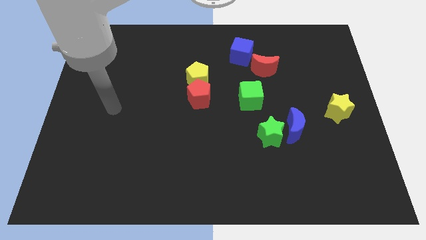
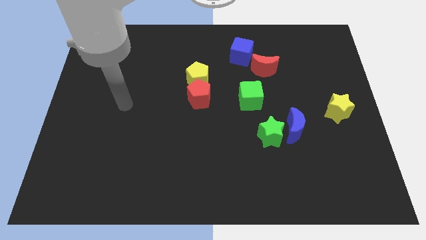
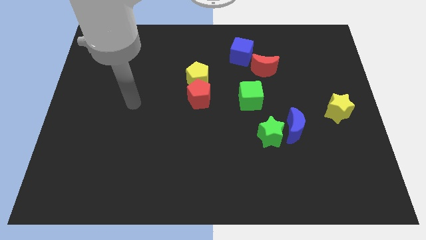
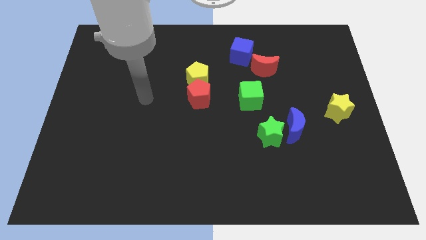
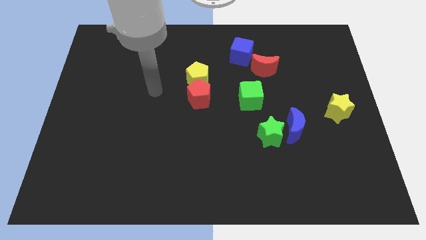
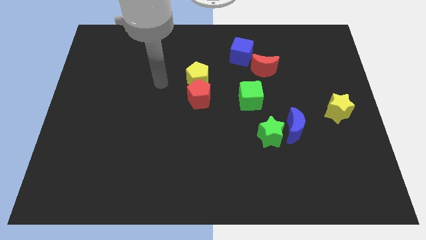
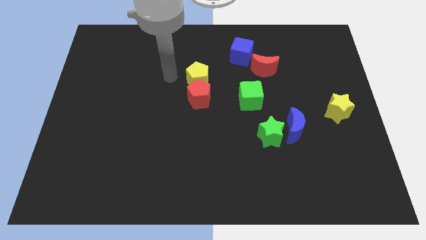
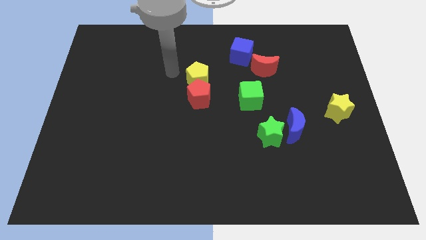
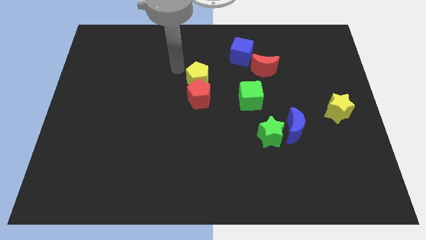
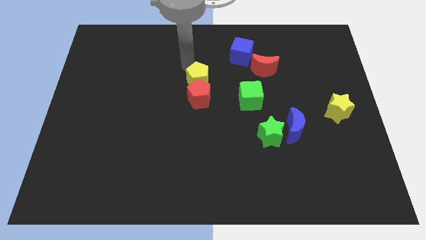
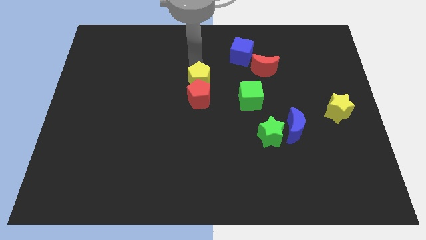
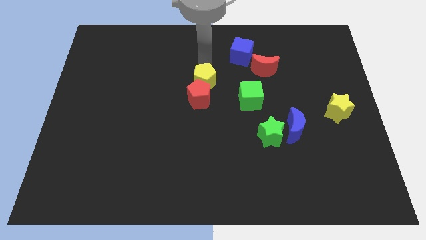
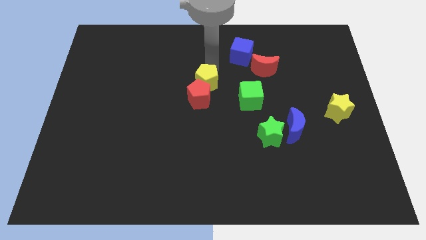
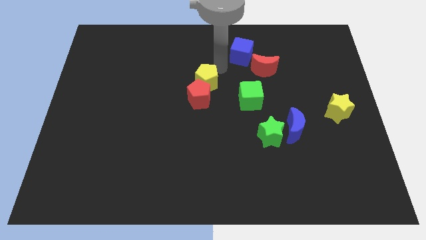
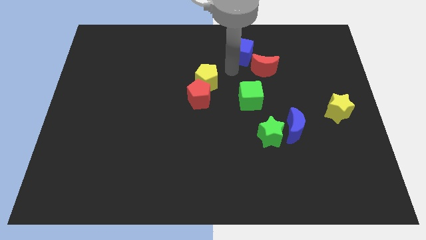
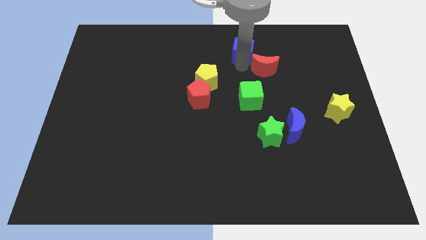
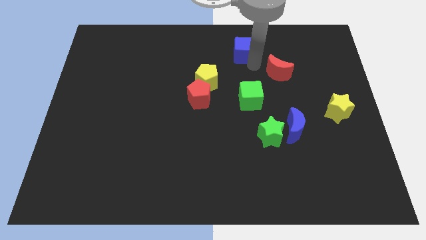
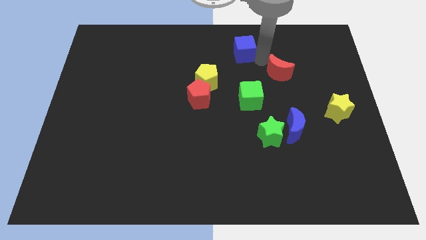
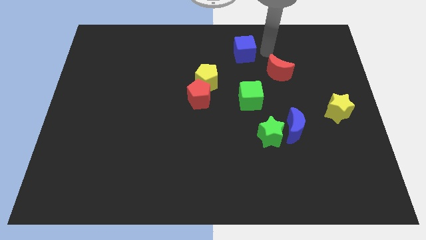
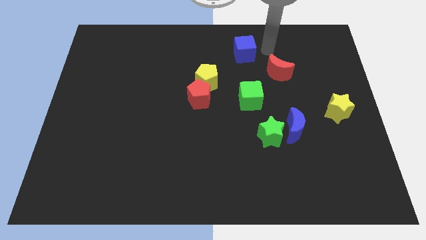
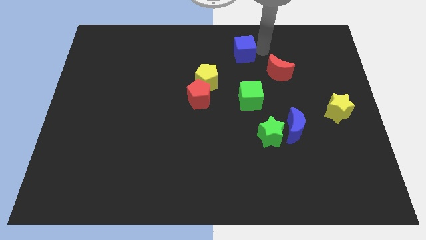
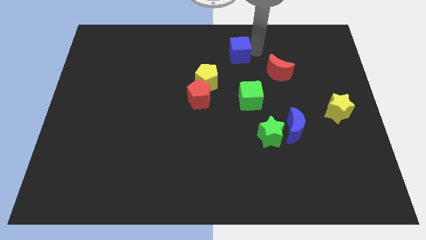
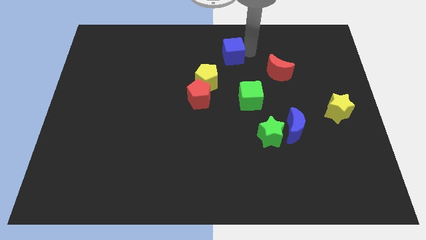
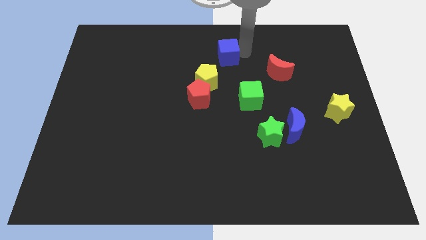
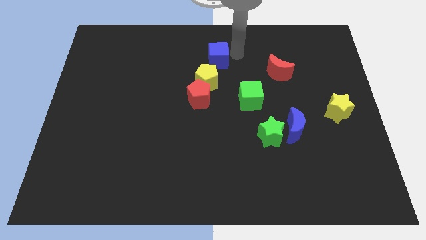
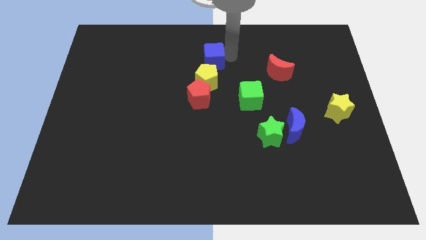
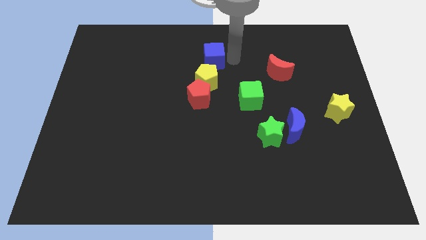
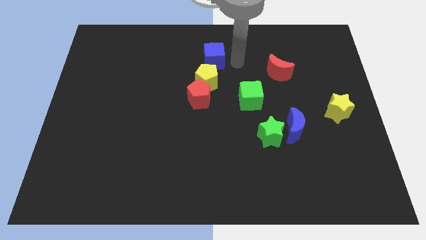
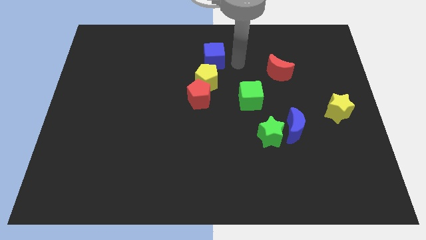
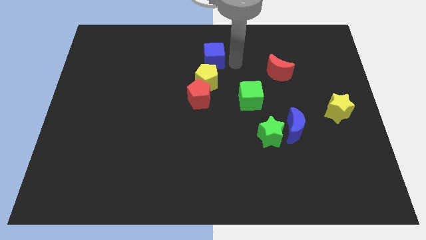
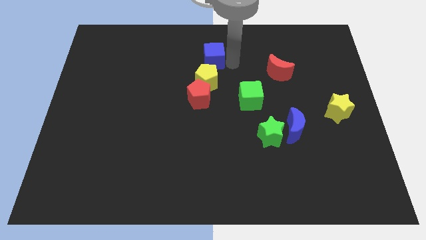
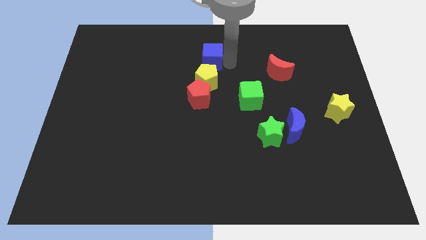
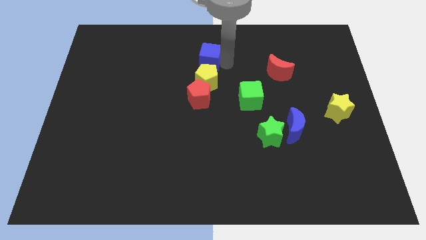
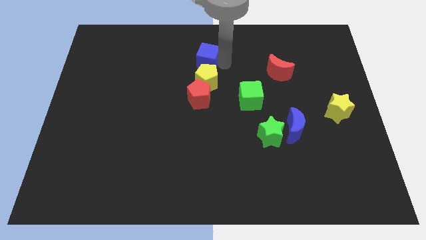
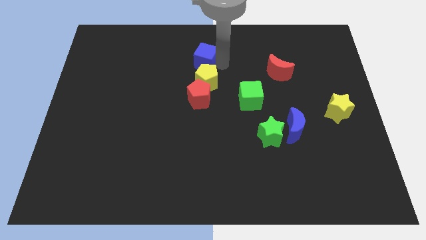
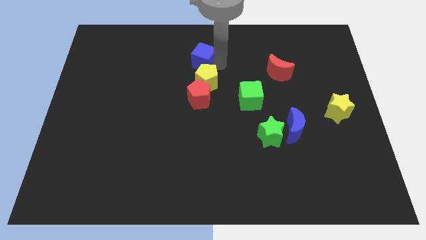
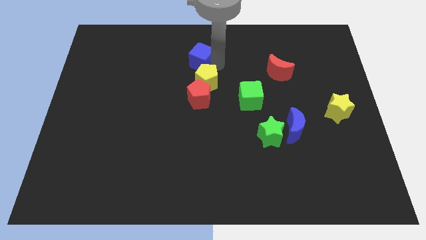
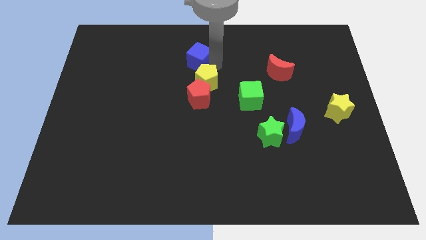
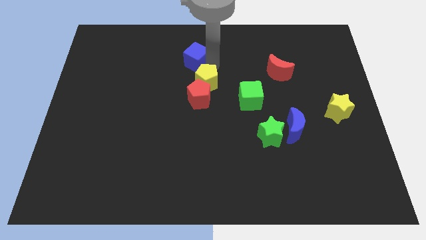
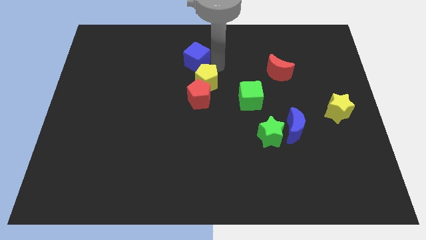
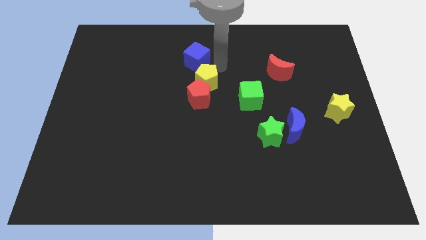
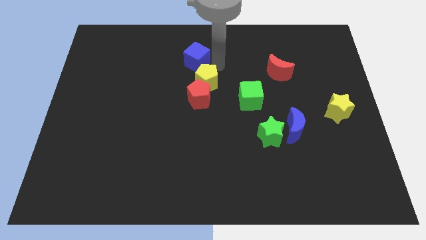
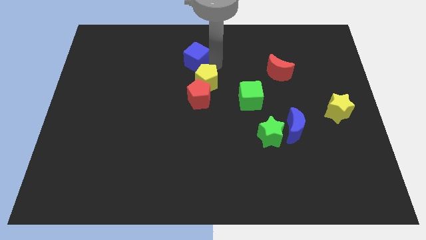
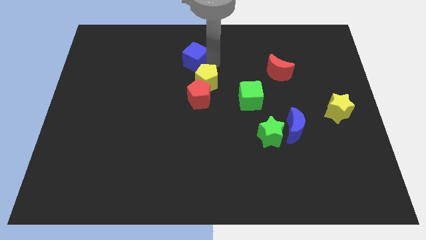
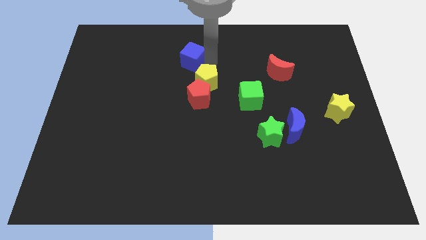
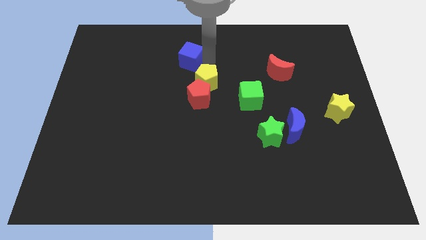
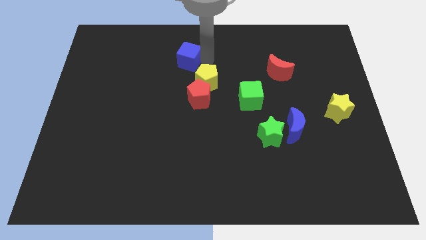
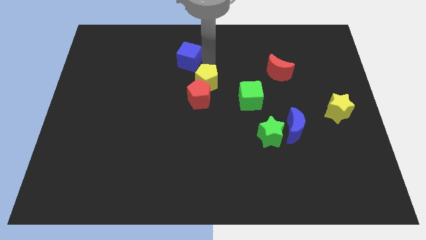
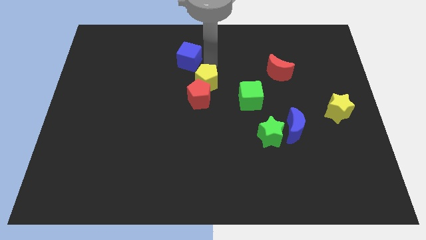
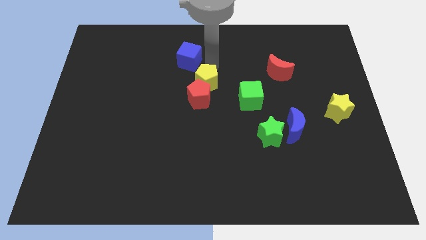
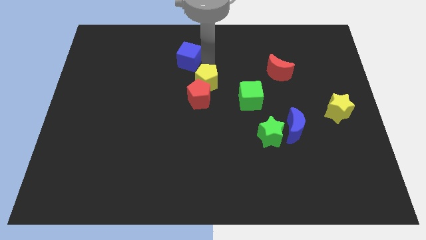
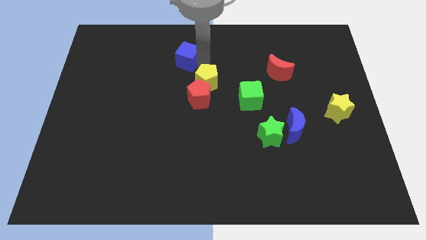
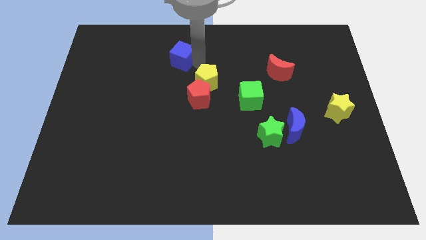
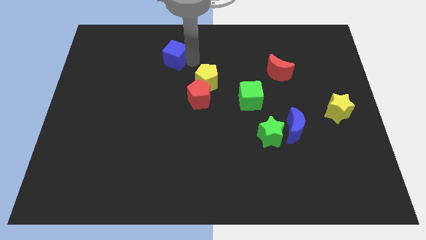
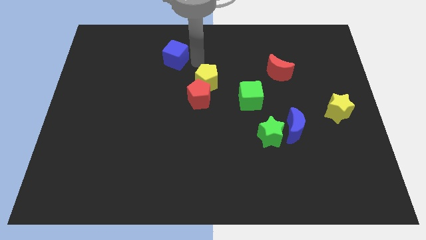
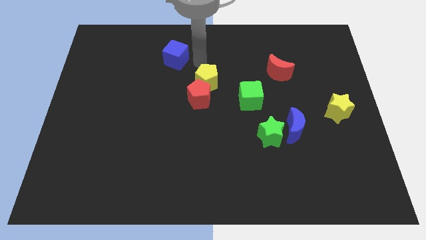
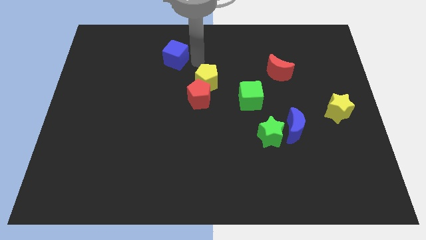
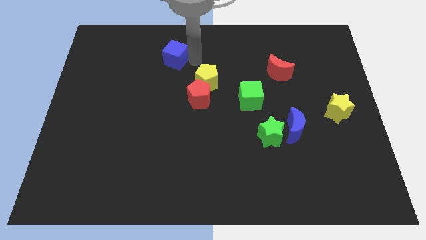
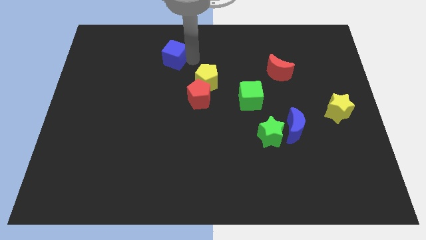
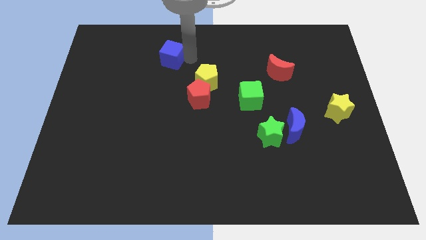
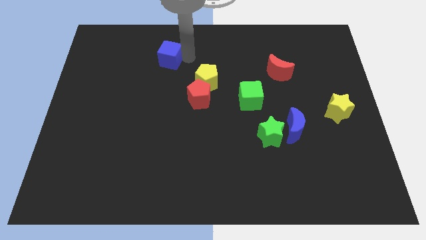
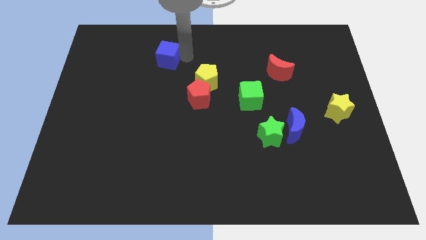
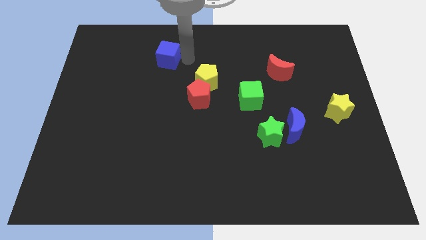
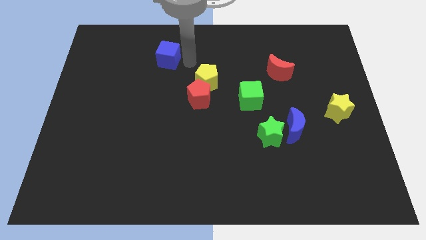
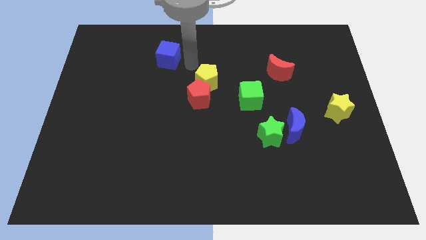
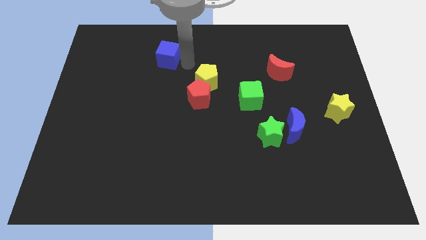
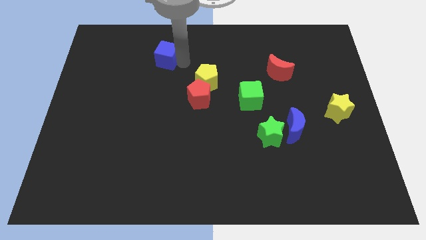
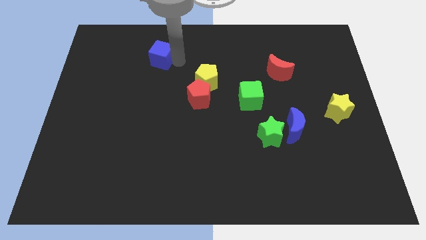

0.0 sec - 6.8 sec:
move the blue cube left

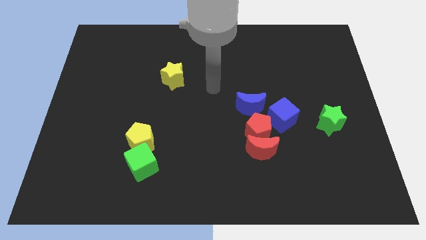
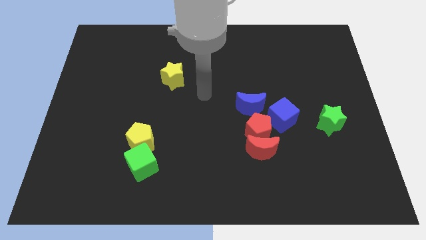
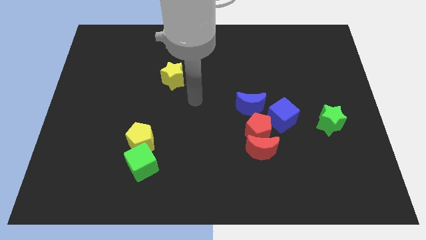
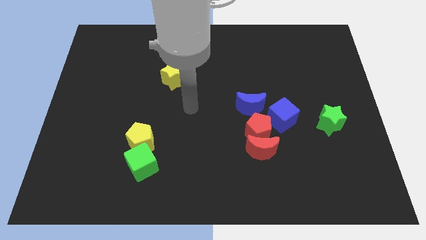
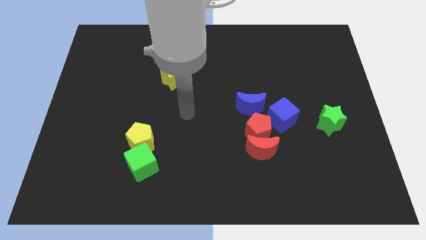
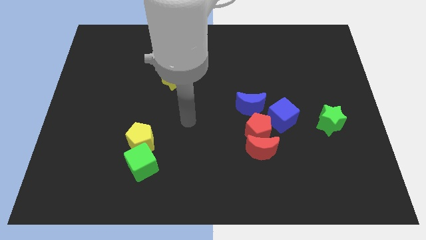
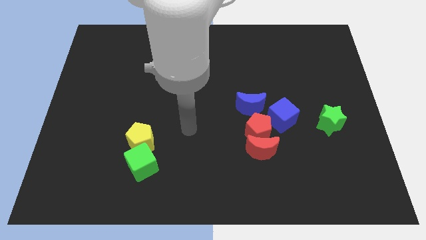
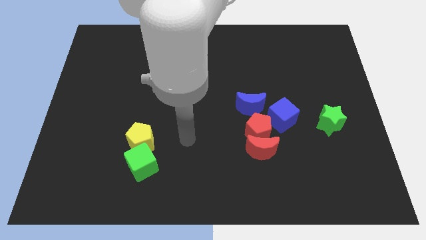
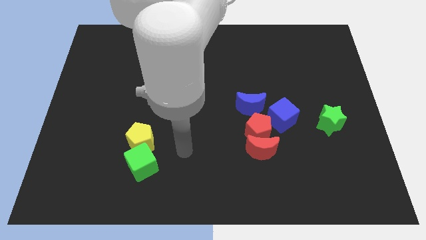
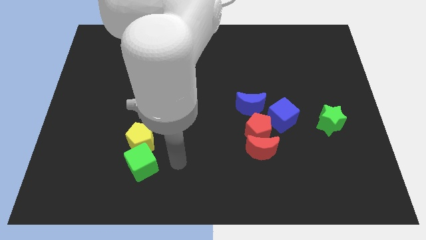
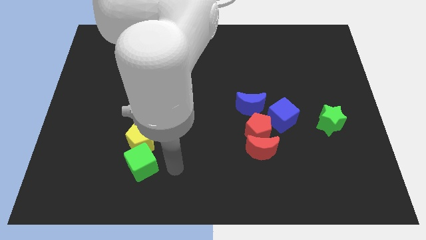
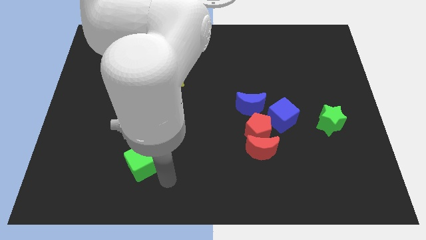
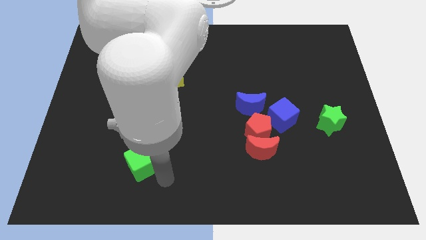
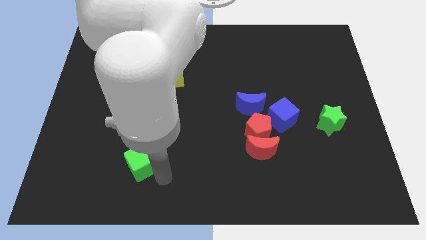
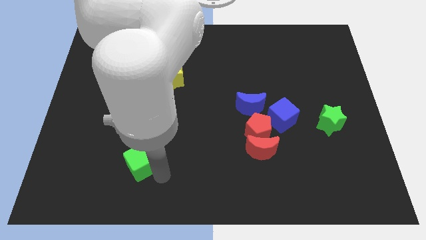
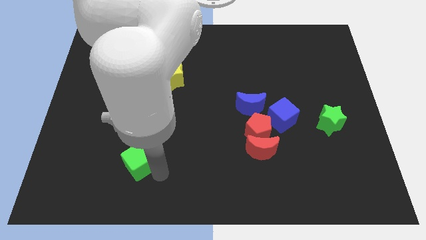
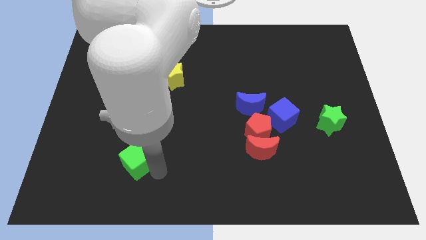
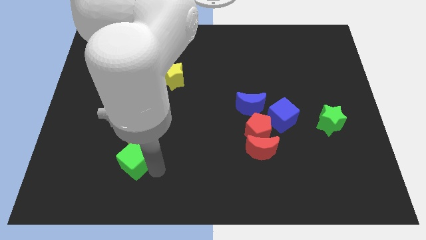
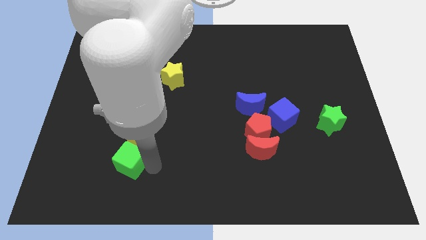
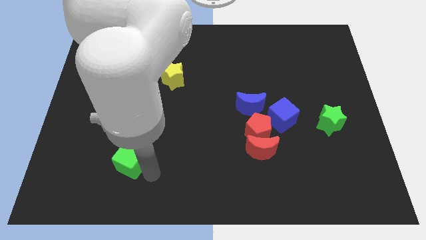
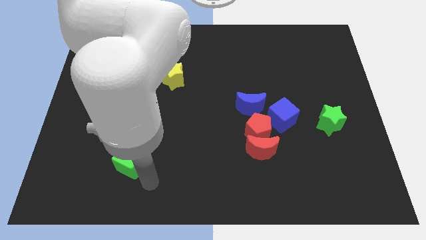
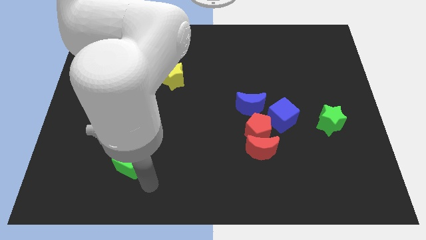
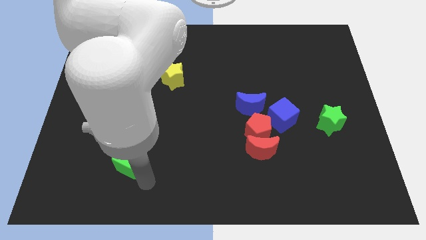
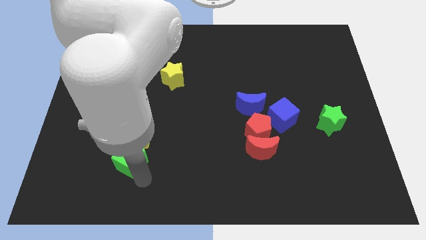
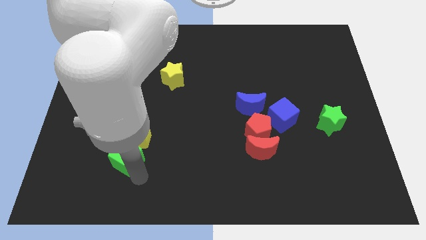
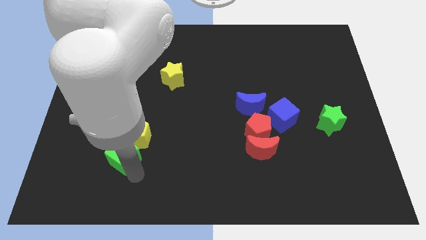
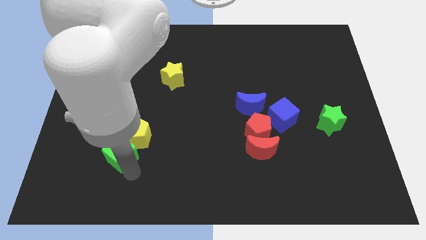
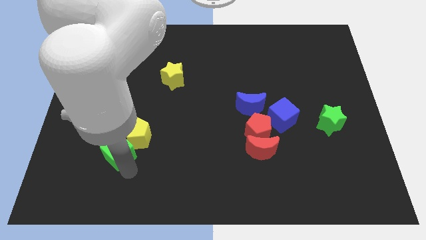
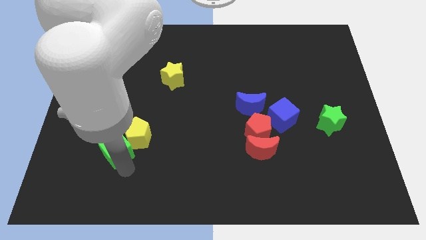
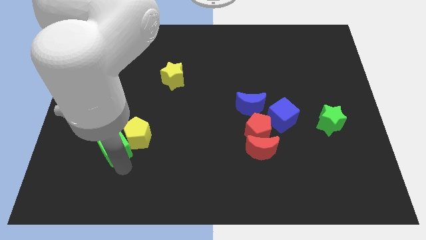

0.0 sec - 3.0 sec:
slightly slide the green cube up and then left
